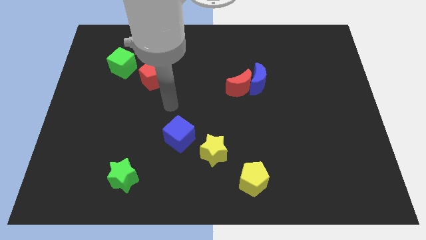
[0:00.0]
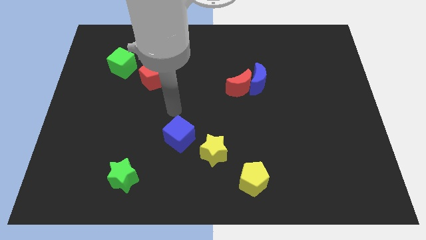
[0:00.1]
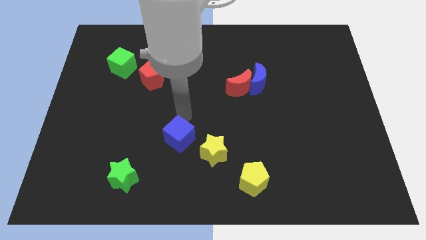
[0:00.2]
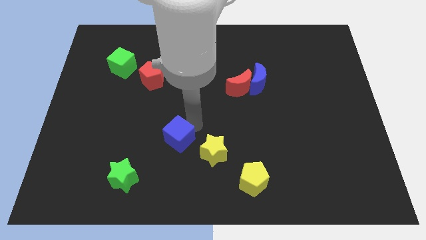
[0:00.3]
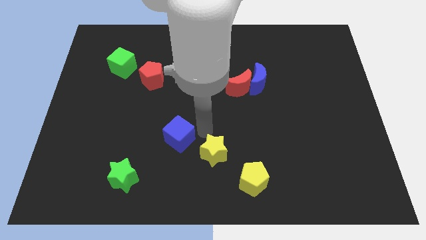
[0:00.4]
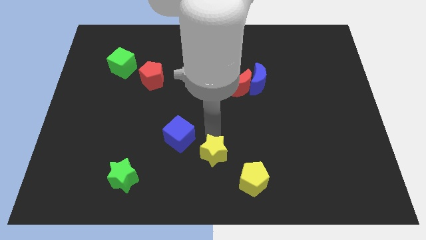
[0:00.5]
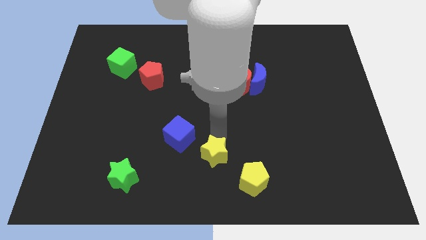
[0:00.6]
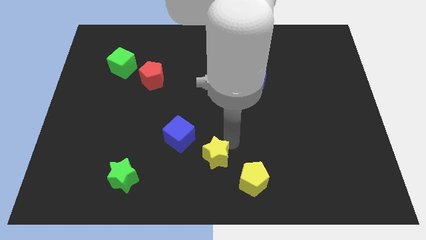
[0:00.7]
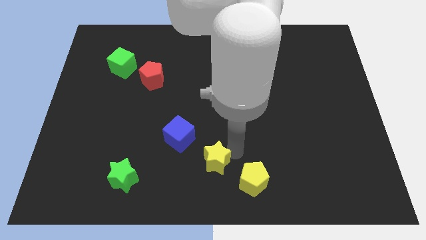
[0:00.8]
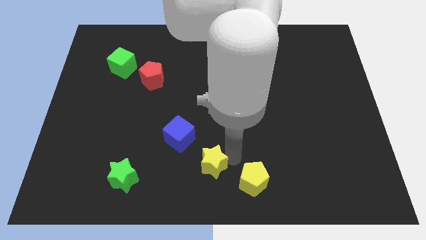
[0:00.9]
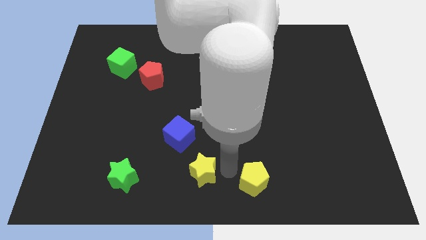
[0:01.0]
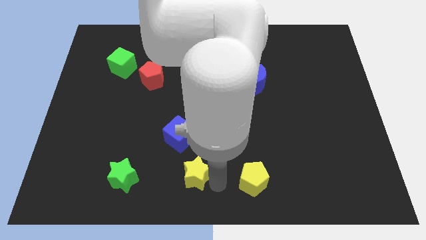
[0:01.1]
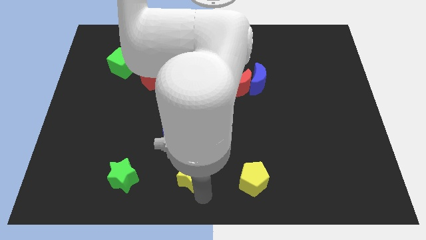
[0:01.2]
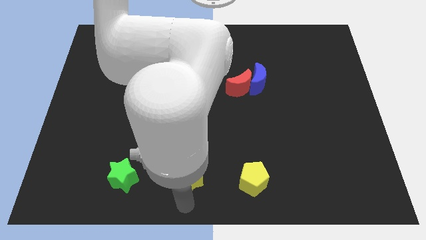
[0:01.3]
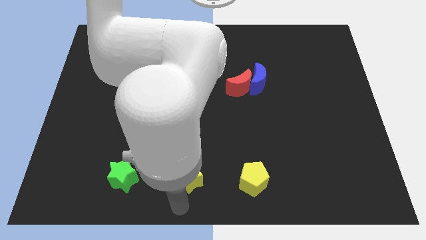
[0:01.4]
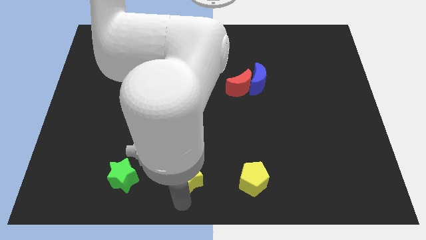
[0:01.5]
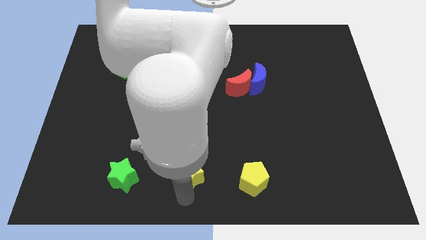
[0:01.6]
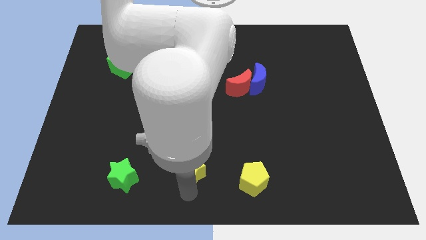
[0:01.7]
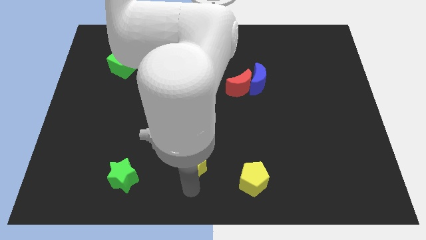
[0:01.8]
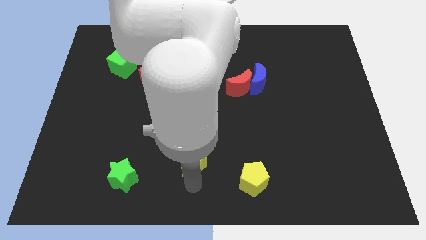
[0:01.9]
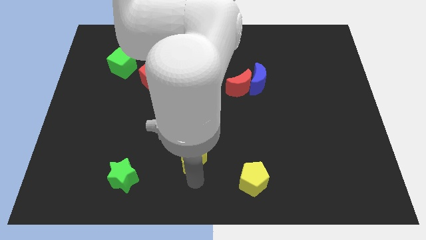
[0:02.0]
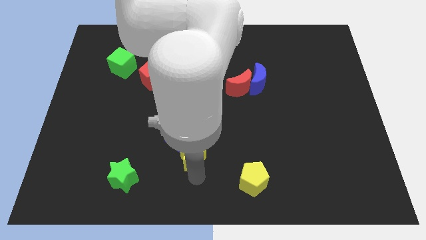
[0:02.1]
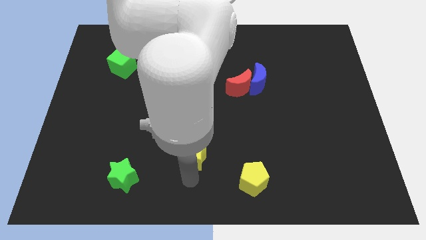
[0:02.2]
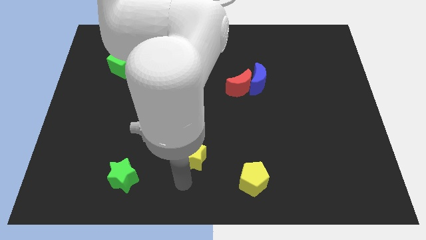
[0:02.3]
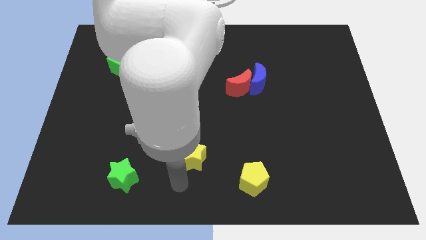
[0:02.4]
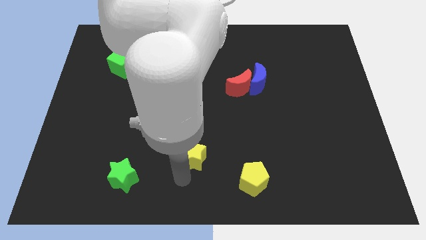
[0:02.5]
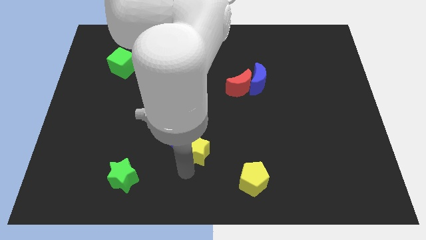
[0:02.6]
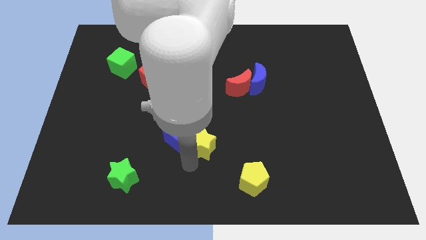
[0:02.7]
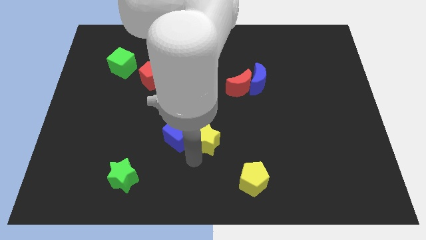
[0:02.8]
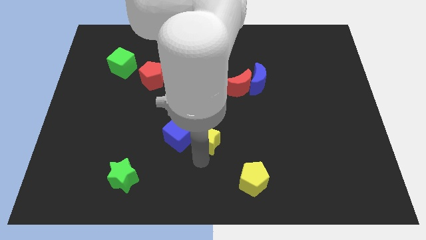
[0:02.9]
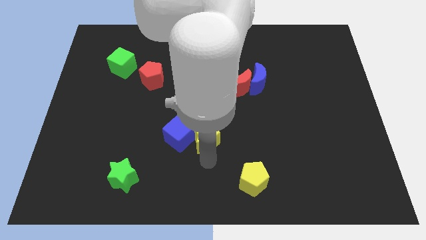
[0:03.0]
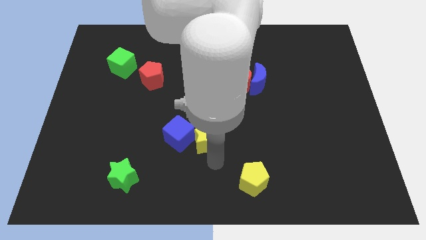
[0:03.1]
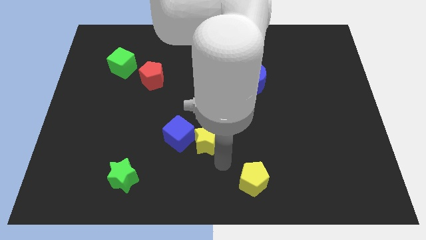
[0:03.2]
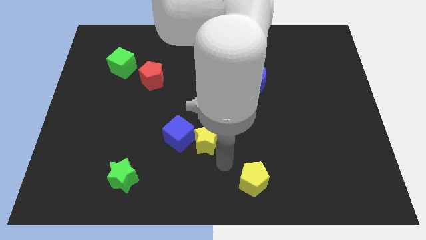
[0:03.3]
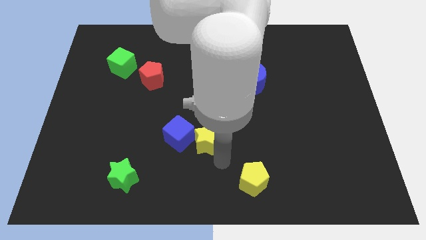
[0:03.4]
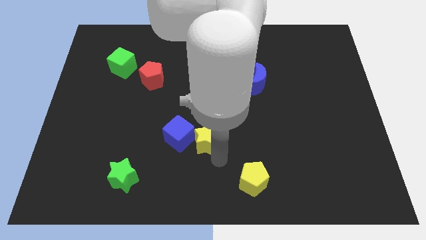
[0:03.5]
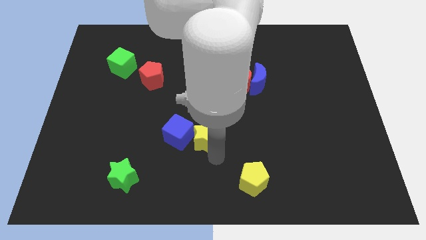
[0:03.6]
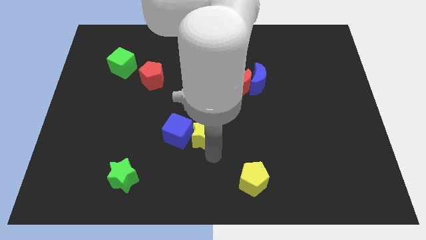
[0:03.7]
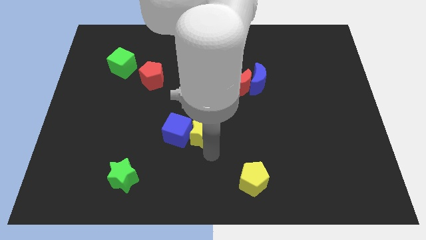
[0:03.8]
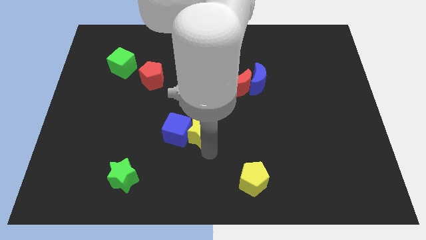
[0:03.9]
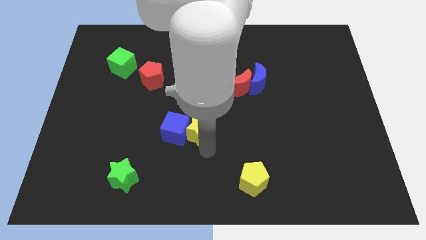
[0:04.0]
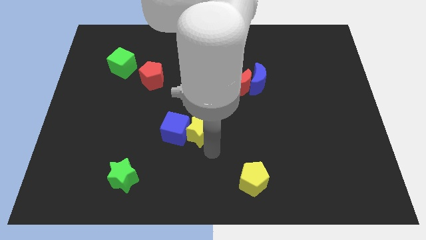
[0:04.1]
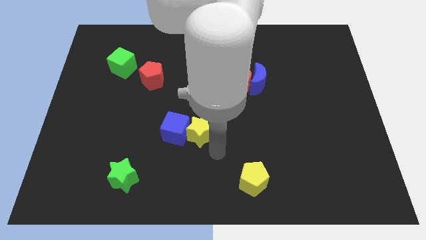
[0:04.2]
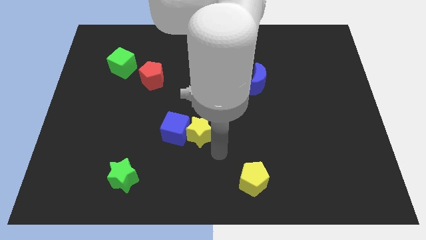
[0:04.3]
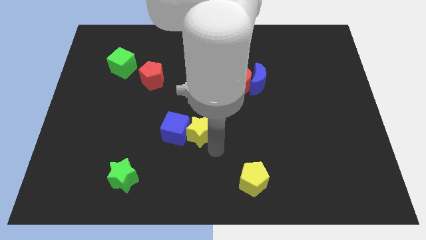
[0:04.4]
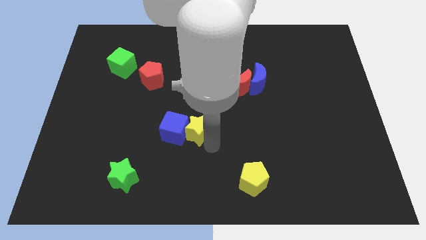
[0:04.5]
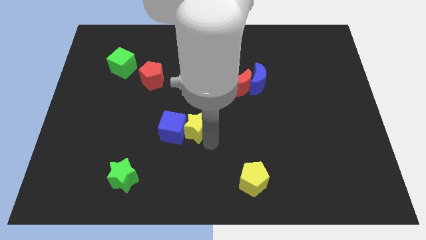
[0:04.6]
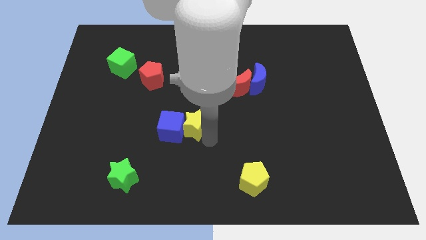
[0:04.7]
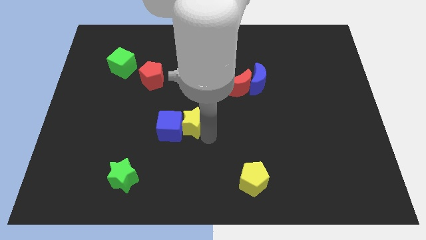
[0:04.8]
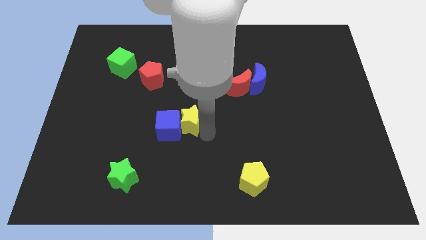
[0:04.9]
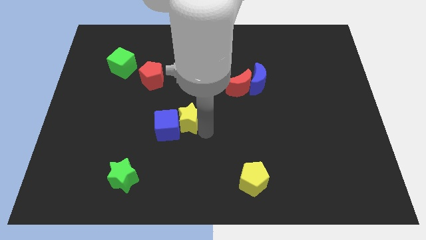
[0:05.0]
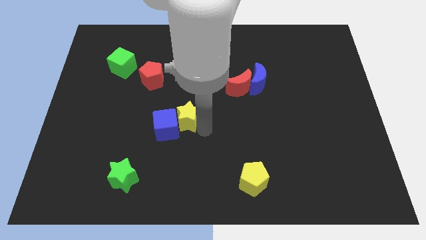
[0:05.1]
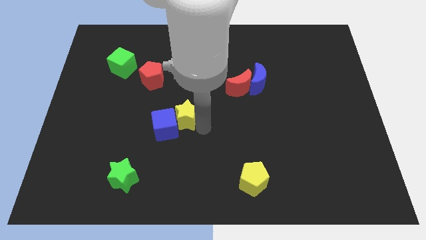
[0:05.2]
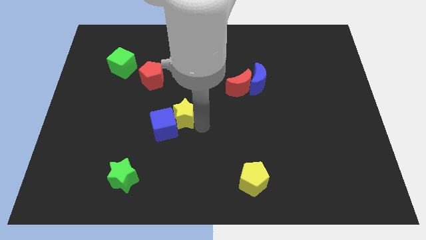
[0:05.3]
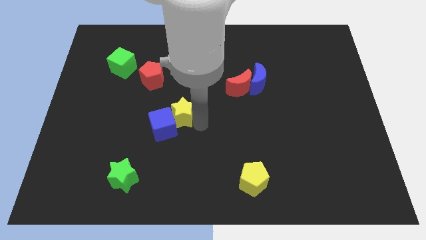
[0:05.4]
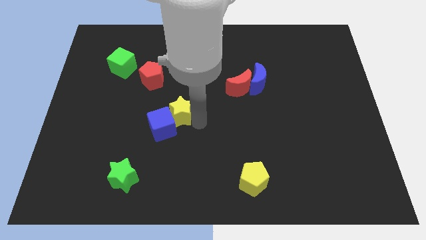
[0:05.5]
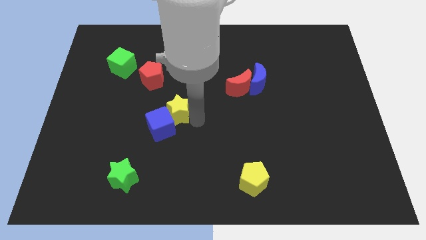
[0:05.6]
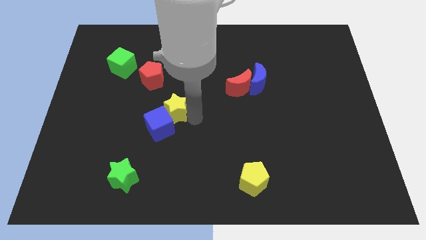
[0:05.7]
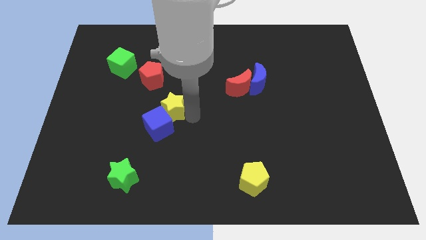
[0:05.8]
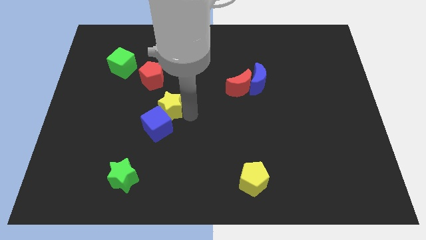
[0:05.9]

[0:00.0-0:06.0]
put the yellow star below the red pentagon

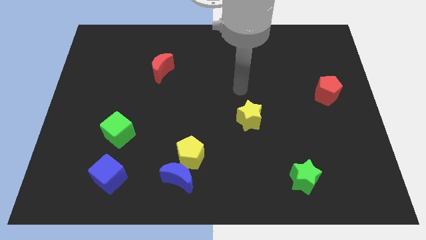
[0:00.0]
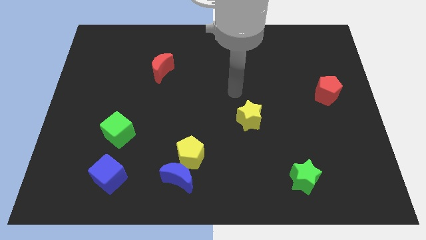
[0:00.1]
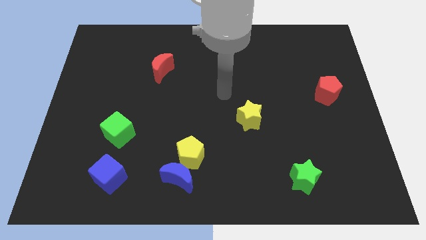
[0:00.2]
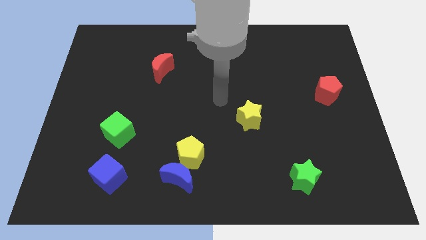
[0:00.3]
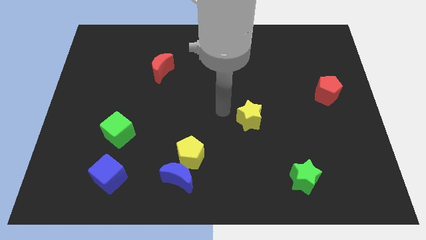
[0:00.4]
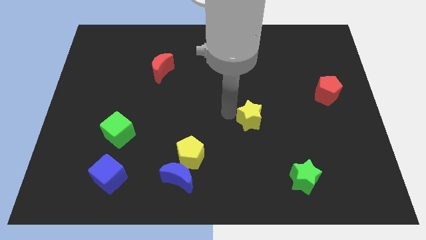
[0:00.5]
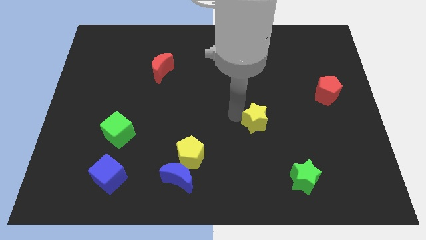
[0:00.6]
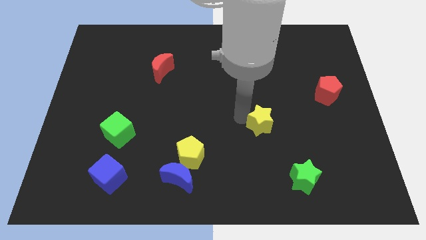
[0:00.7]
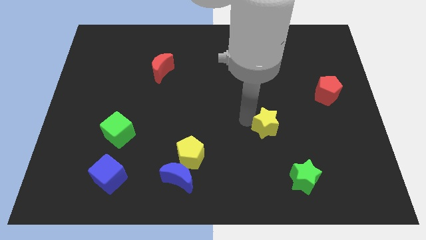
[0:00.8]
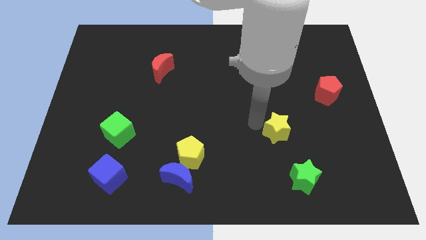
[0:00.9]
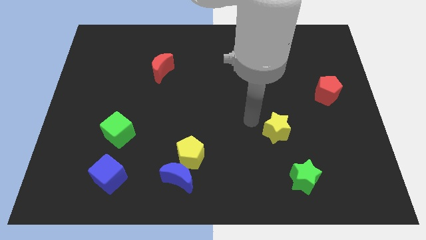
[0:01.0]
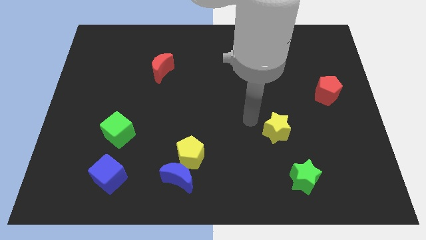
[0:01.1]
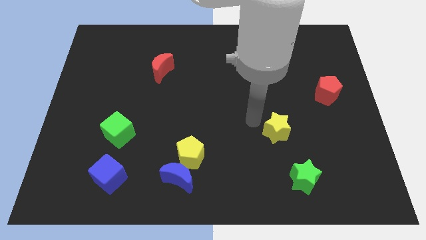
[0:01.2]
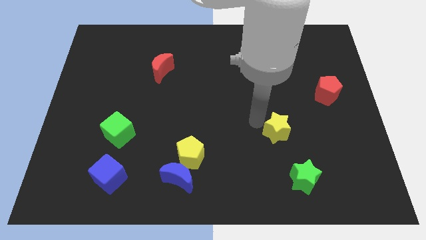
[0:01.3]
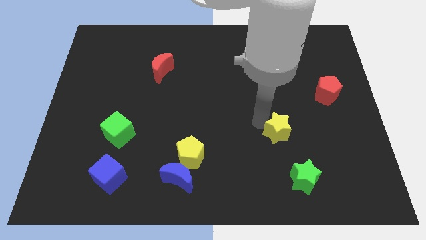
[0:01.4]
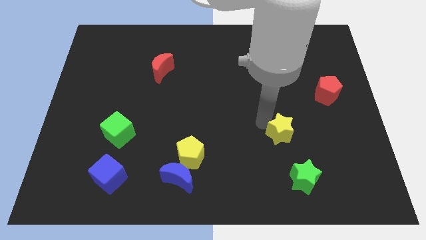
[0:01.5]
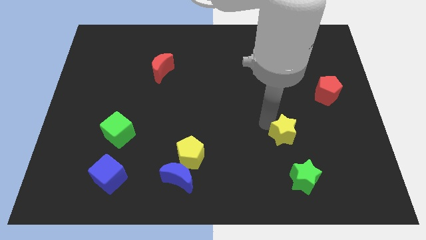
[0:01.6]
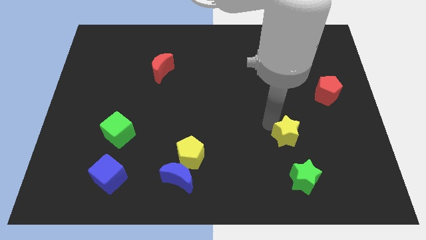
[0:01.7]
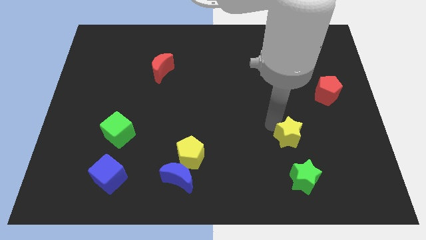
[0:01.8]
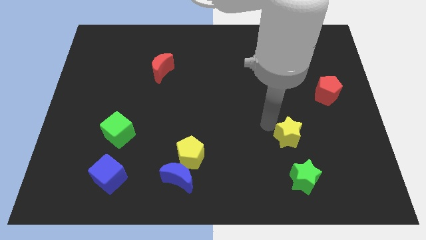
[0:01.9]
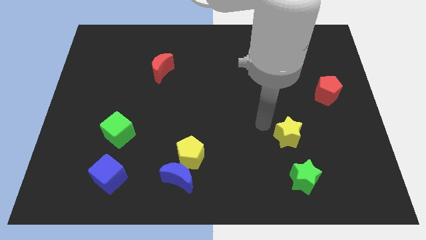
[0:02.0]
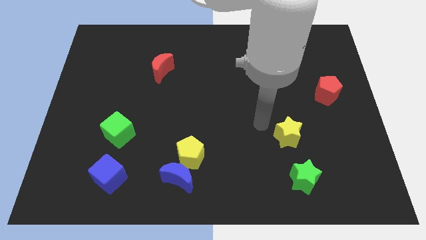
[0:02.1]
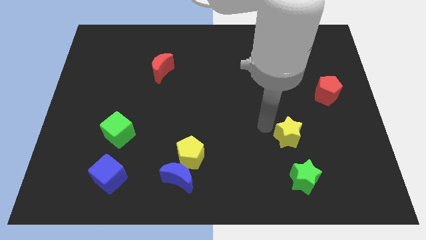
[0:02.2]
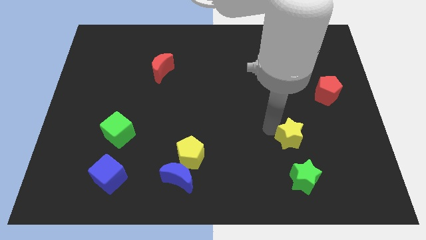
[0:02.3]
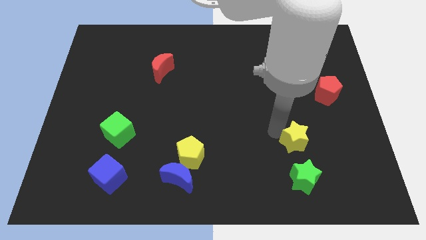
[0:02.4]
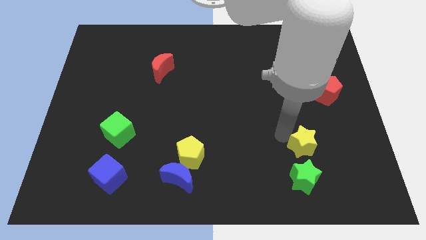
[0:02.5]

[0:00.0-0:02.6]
push the yellow star to the top right side of the green star
